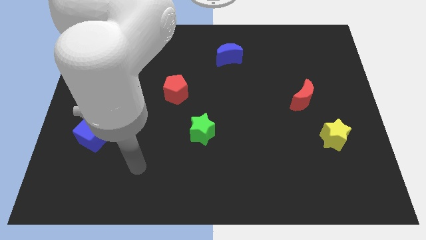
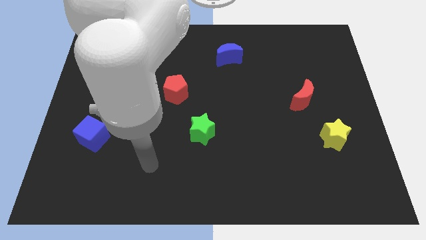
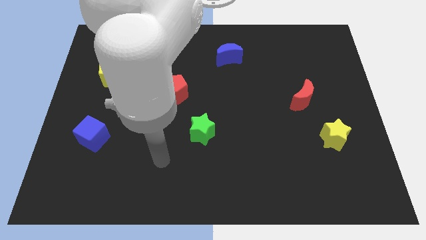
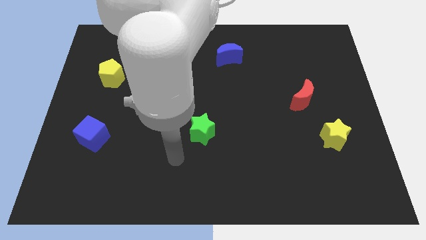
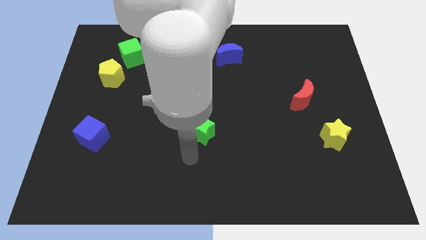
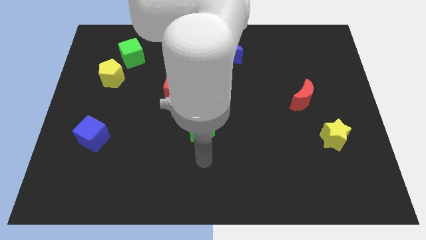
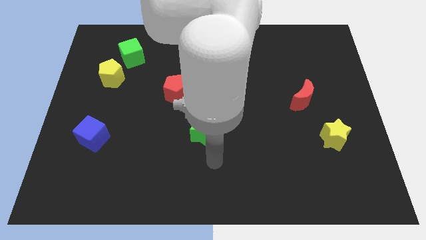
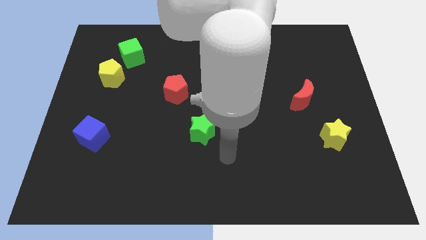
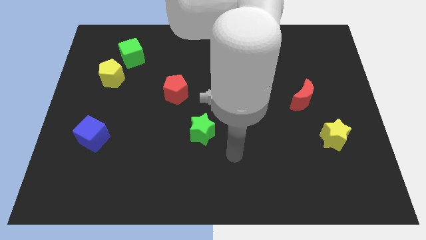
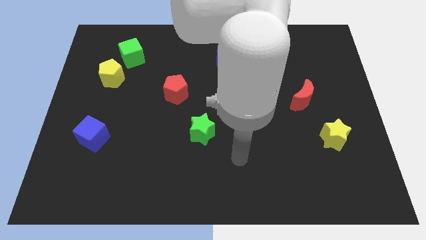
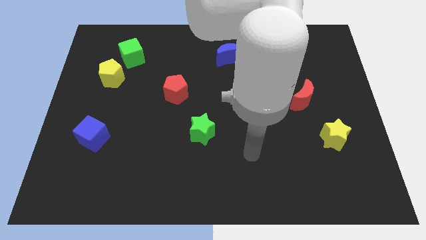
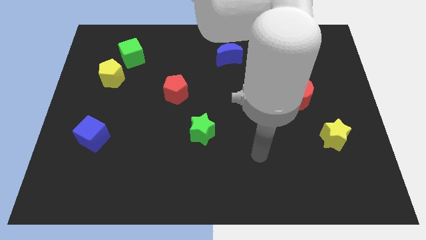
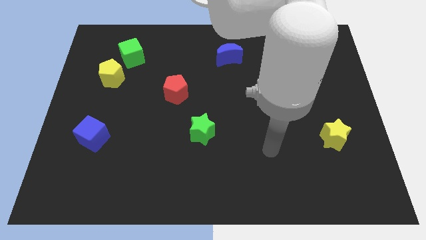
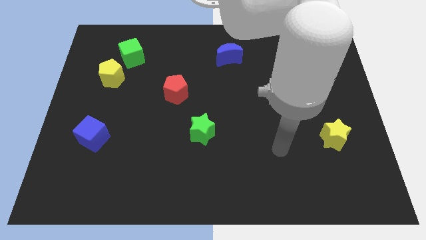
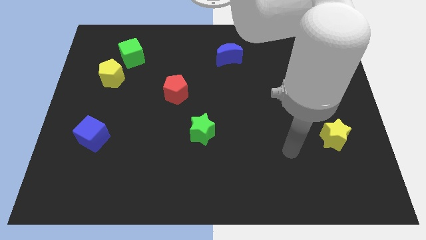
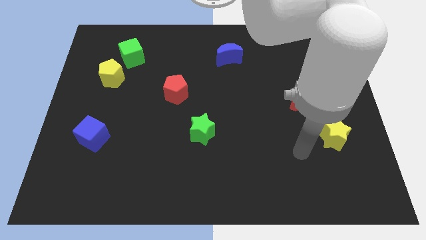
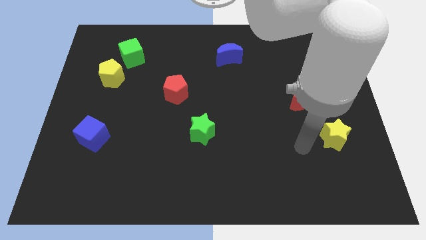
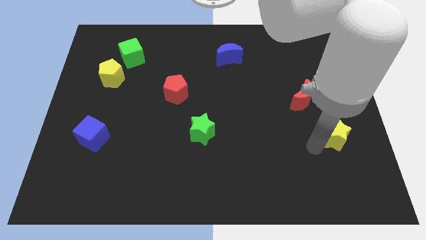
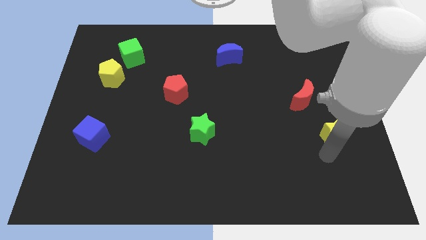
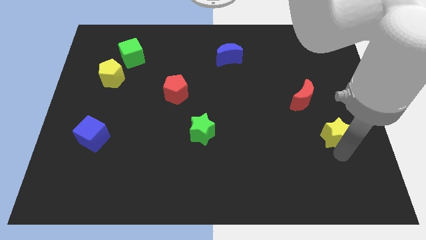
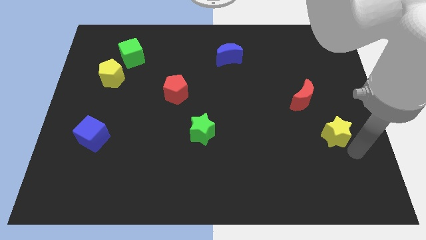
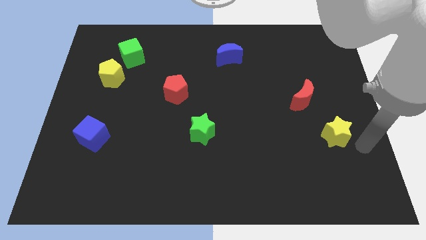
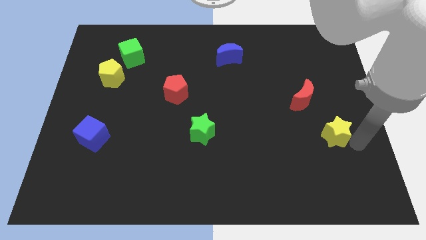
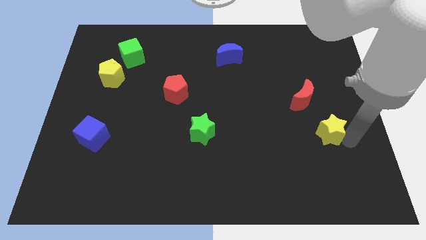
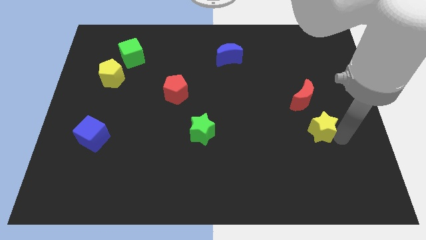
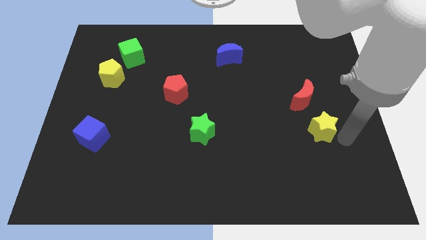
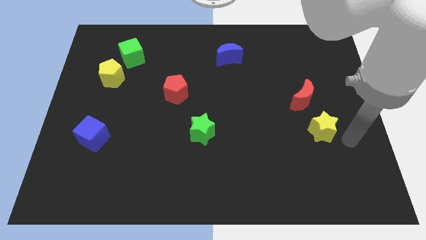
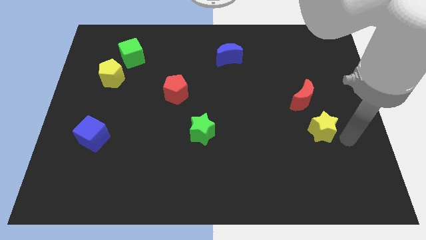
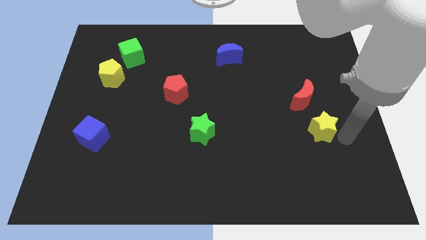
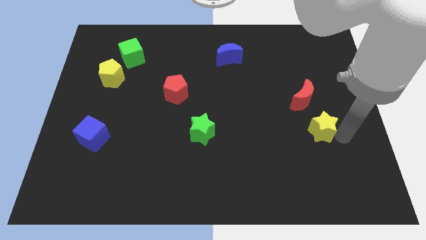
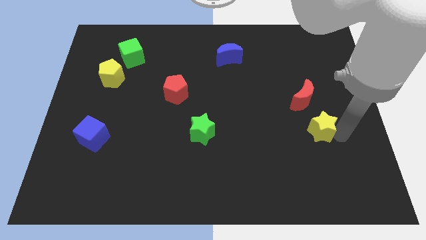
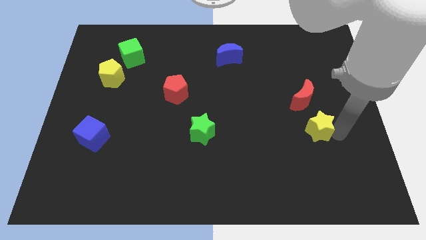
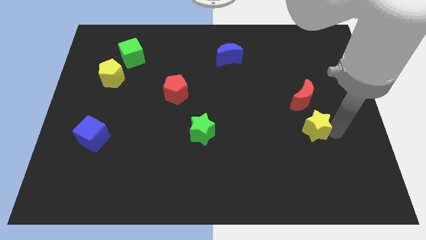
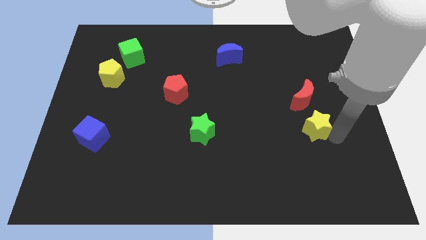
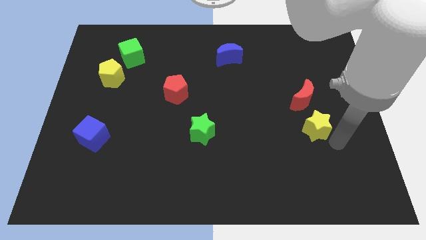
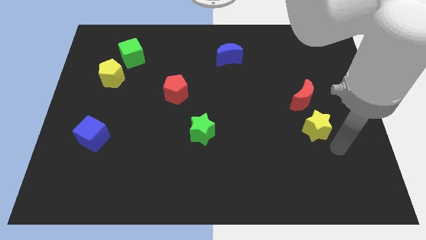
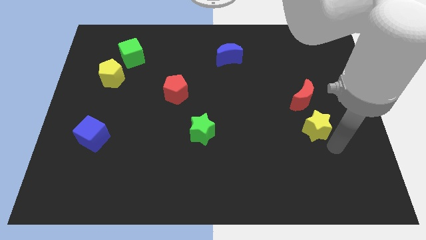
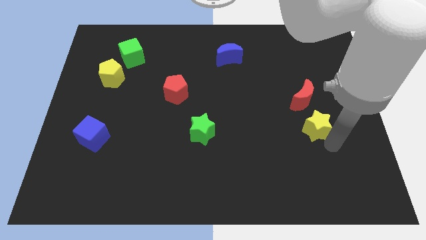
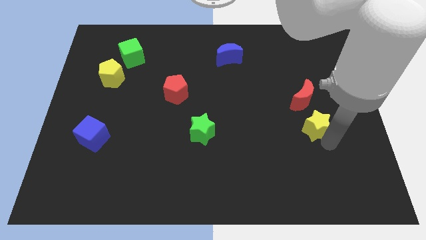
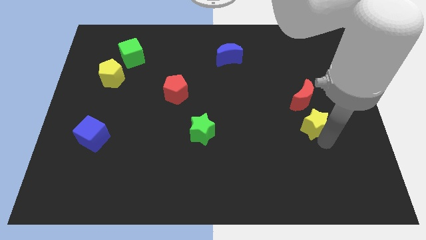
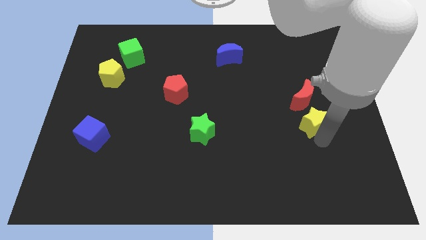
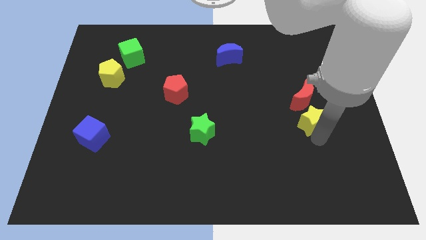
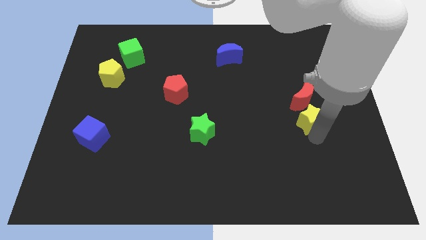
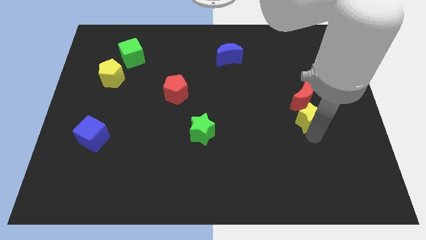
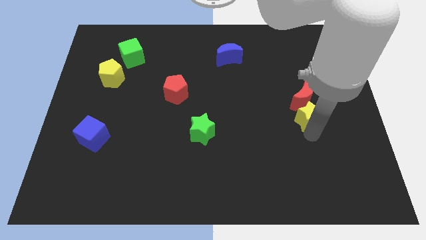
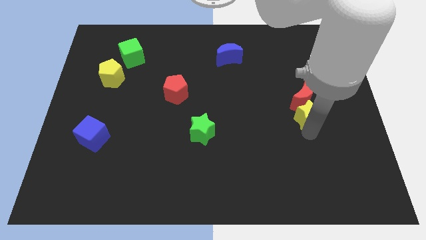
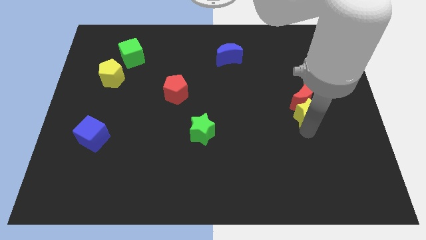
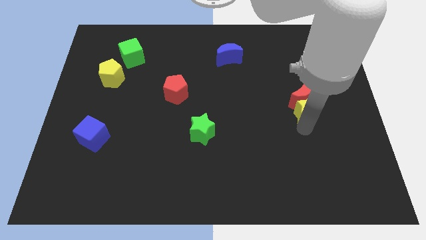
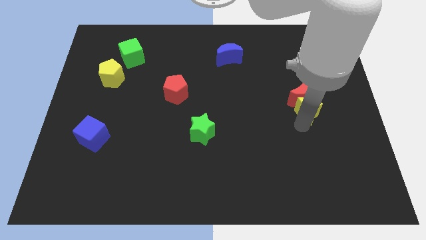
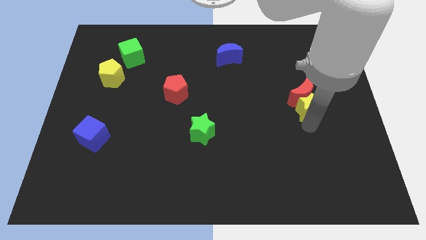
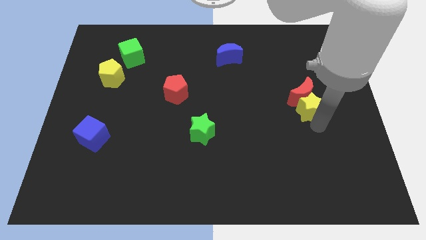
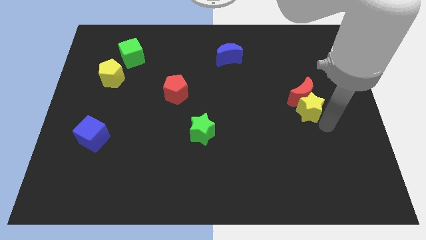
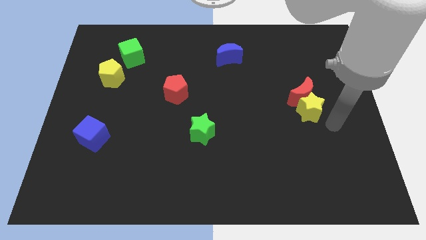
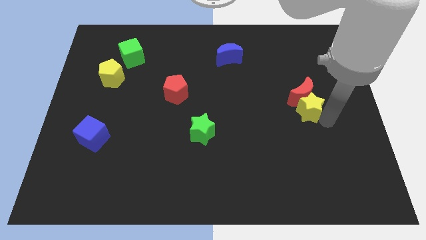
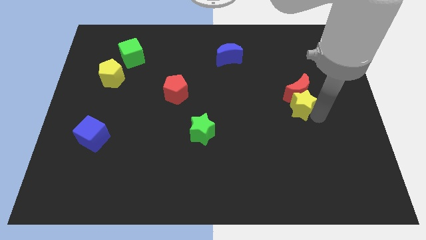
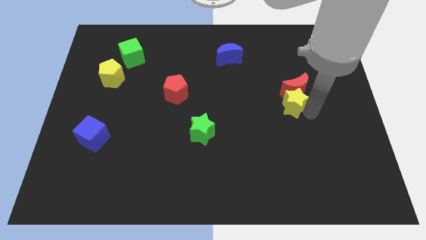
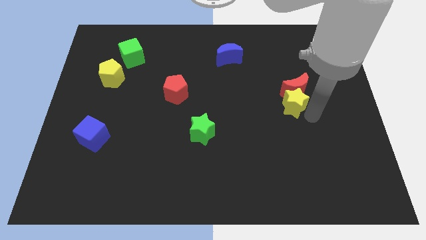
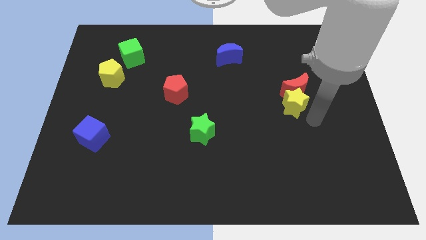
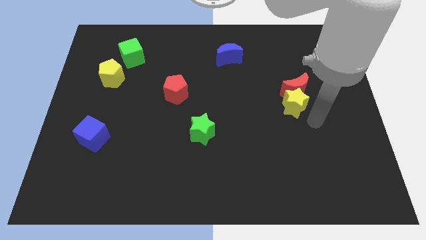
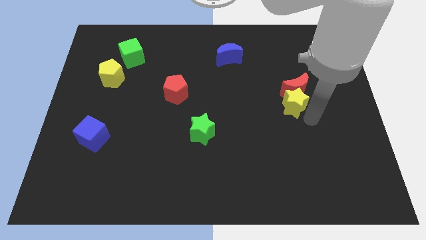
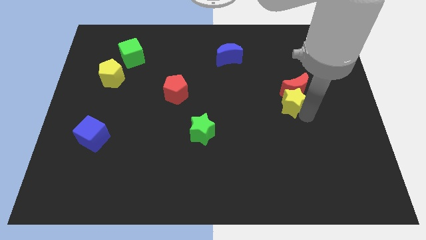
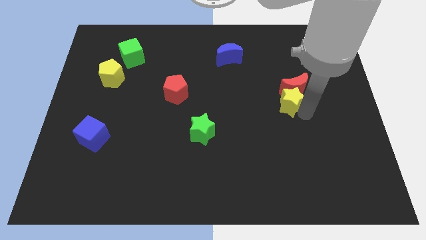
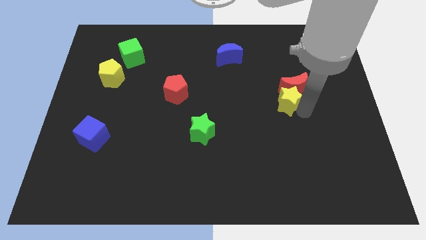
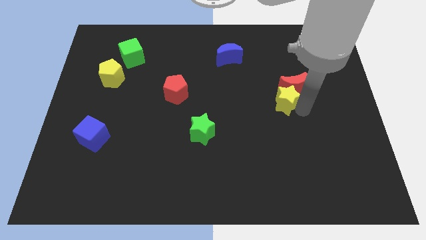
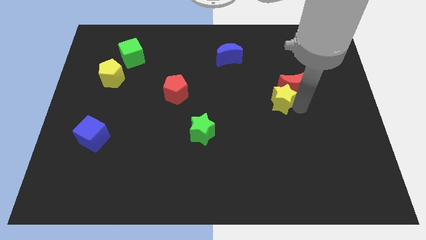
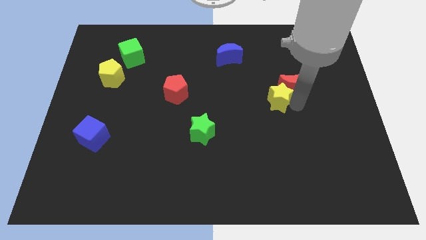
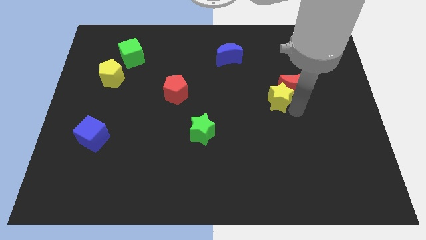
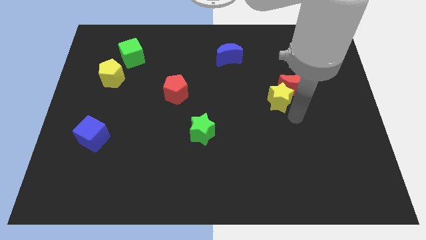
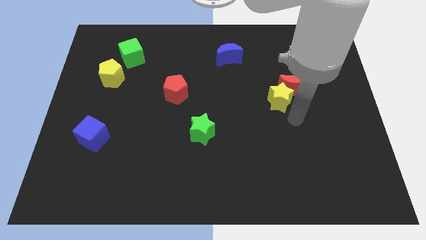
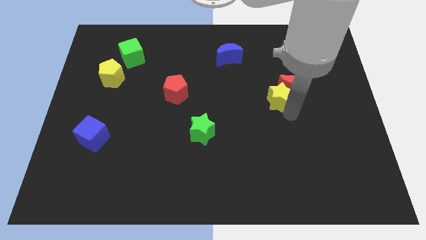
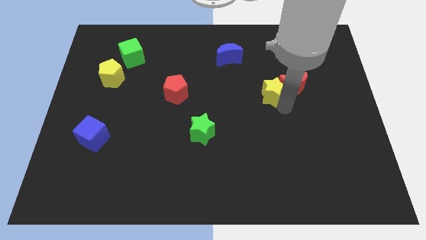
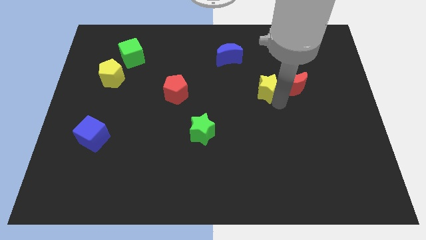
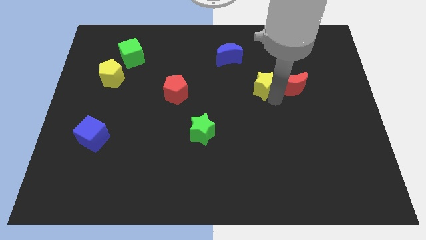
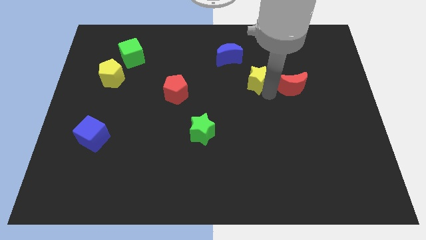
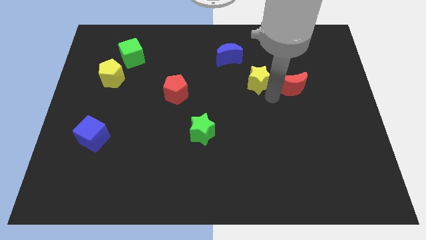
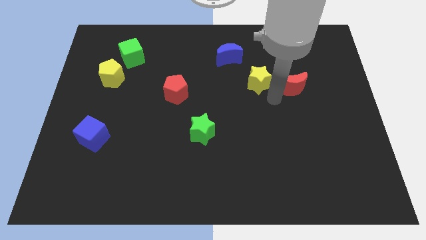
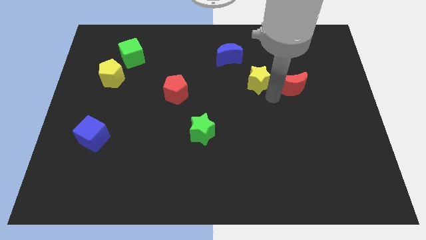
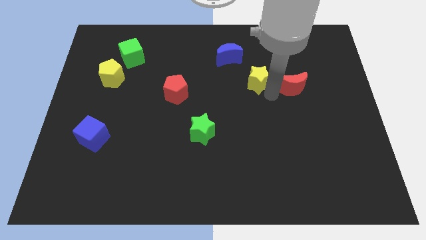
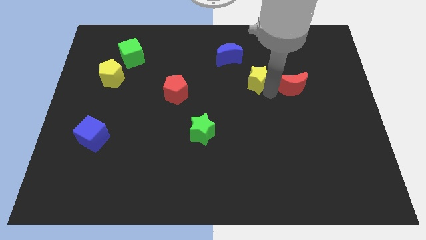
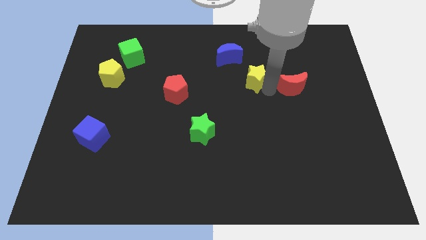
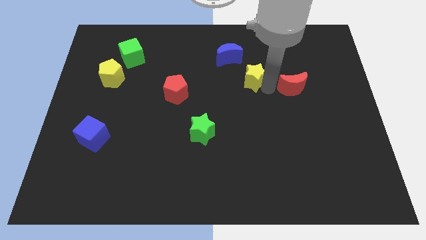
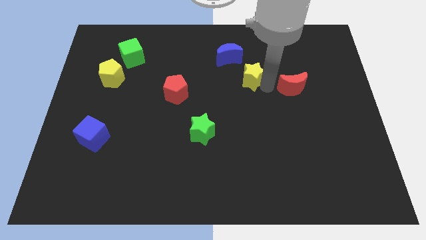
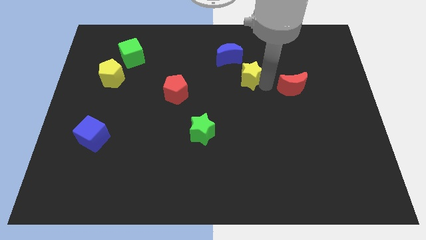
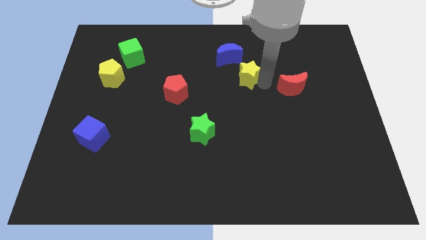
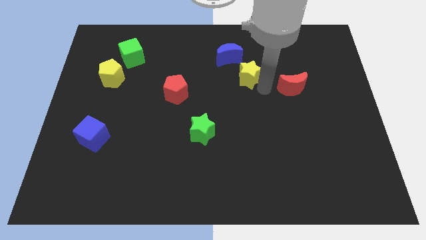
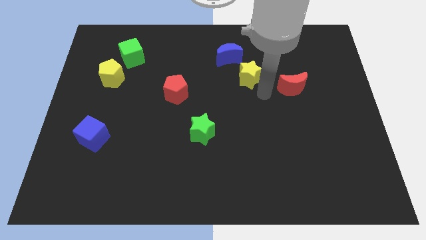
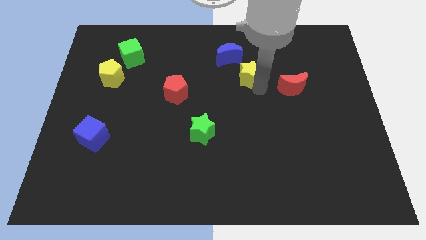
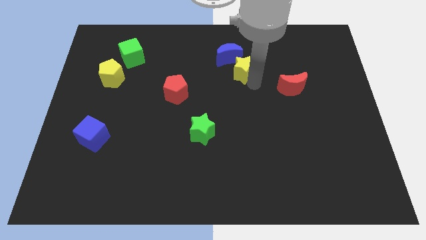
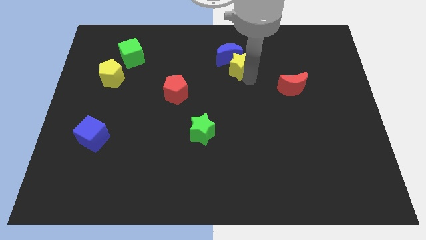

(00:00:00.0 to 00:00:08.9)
push the yellow star towards the blue moon
